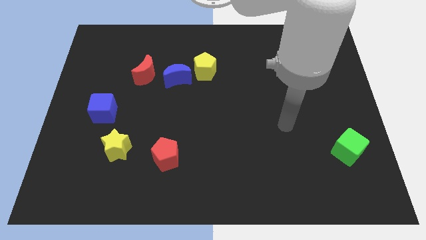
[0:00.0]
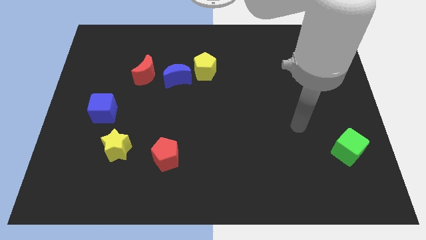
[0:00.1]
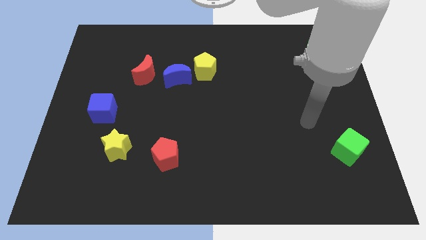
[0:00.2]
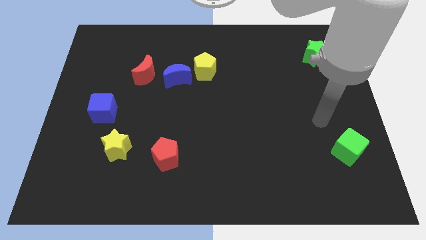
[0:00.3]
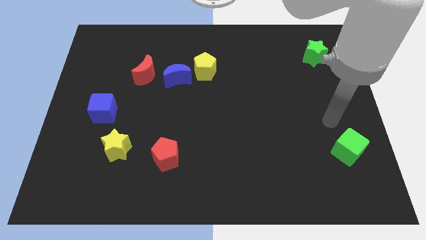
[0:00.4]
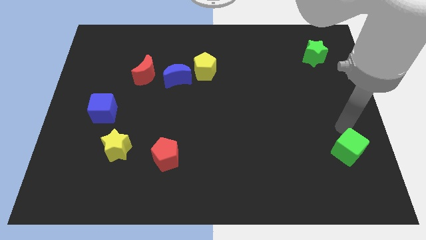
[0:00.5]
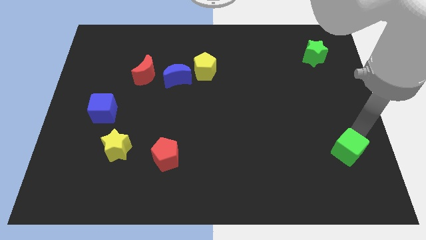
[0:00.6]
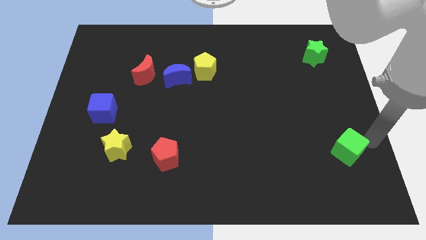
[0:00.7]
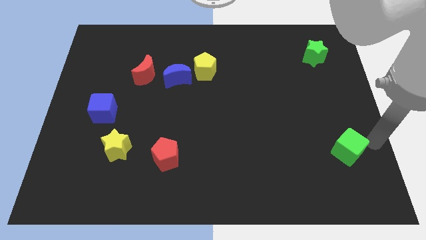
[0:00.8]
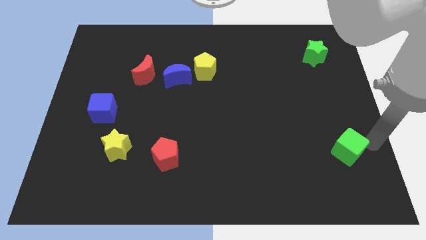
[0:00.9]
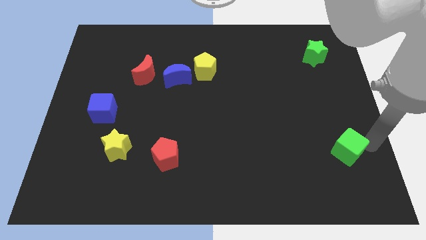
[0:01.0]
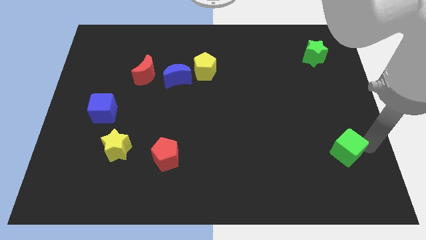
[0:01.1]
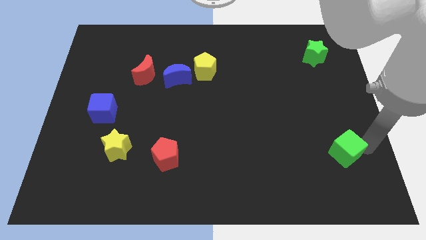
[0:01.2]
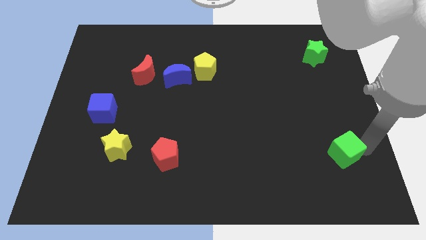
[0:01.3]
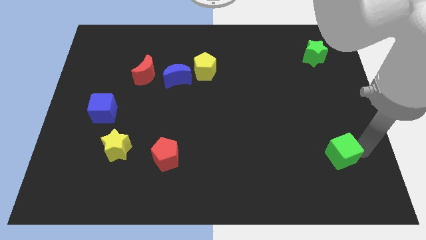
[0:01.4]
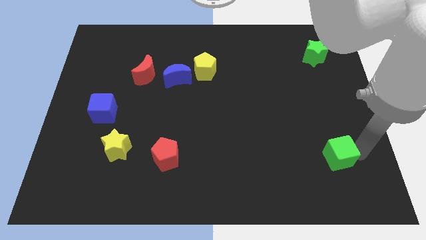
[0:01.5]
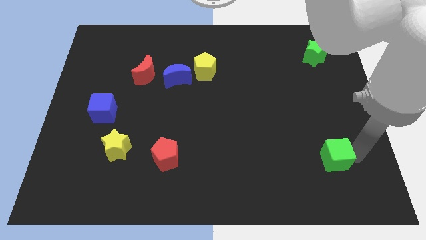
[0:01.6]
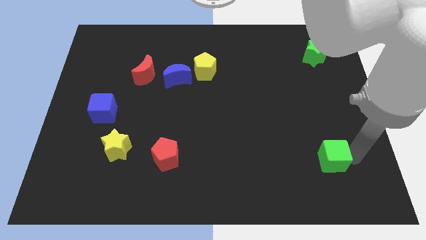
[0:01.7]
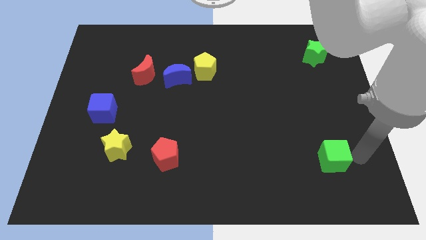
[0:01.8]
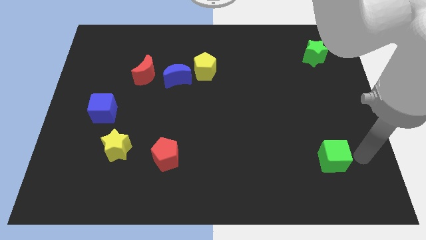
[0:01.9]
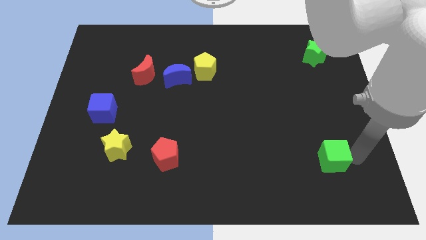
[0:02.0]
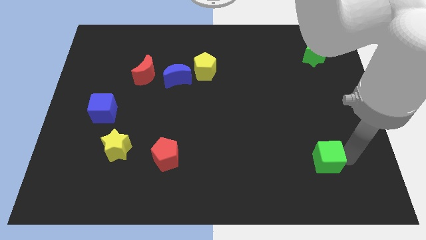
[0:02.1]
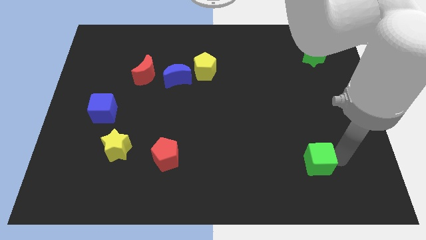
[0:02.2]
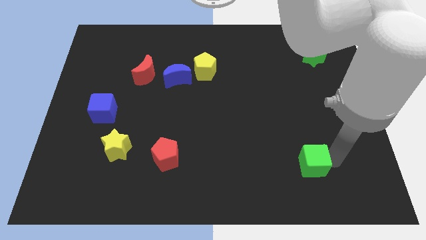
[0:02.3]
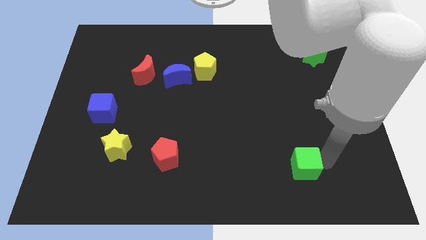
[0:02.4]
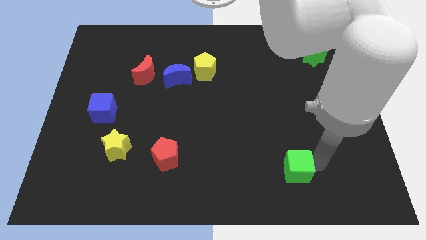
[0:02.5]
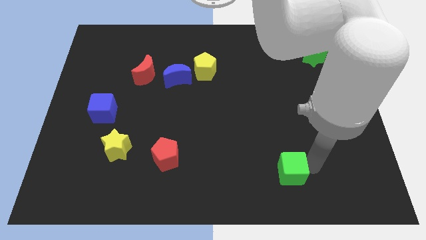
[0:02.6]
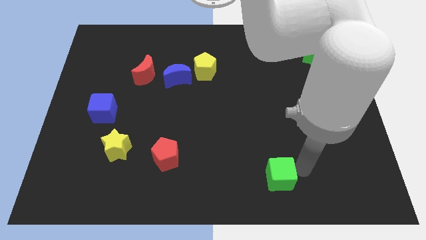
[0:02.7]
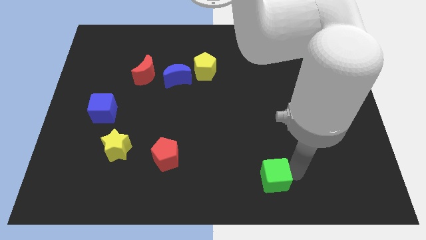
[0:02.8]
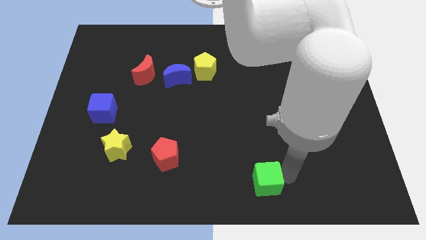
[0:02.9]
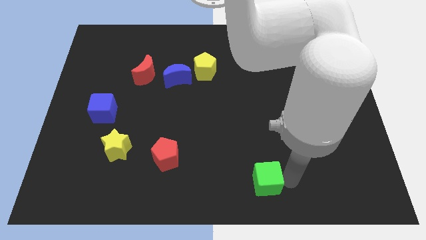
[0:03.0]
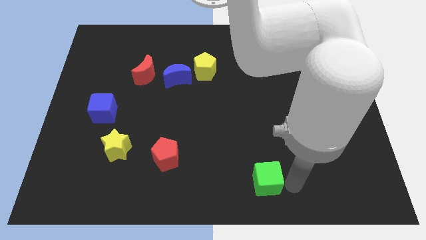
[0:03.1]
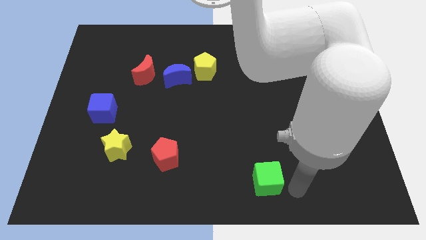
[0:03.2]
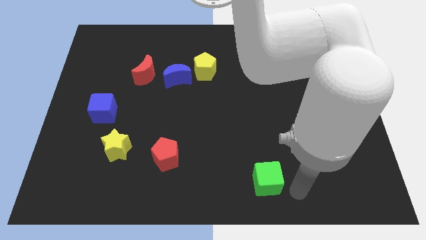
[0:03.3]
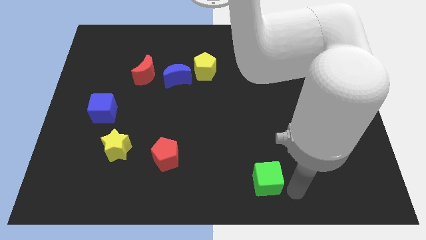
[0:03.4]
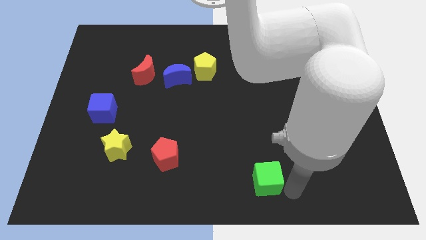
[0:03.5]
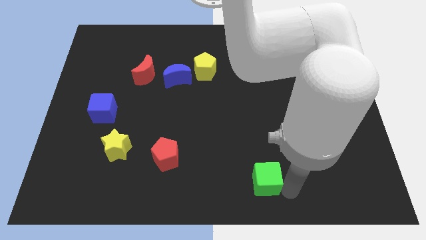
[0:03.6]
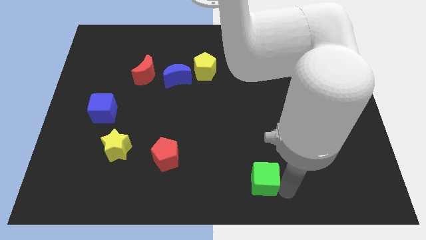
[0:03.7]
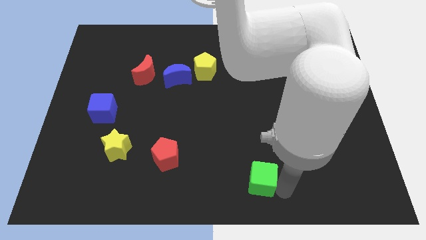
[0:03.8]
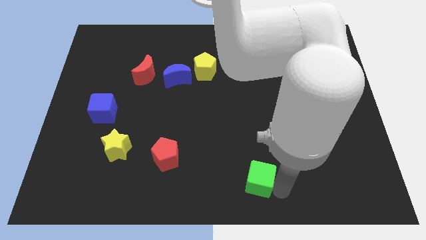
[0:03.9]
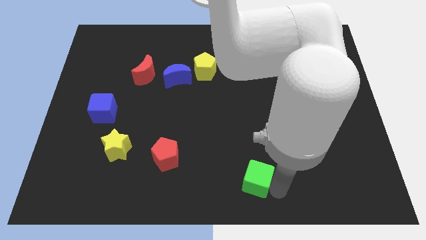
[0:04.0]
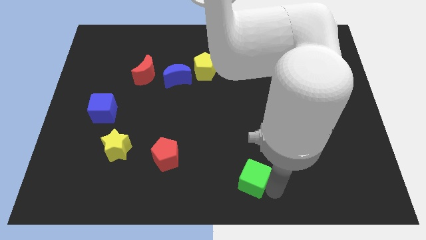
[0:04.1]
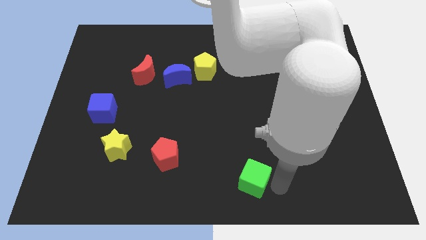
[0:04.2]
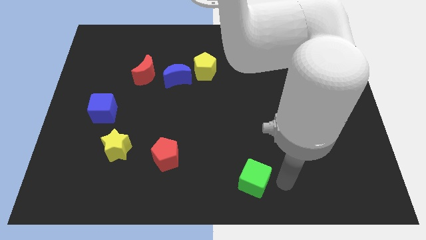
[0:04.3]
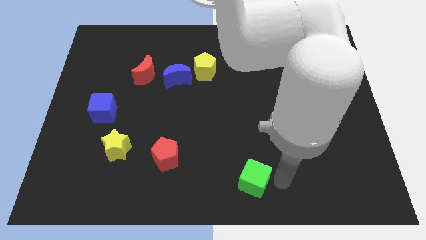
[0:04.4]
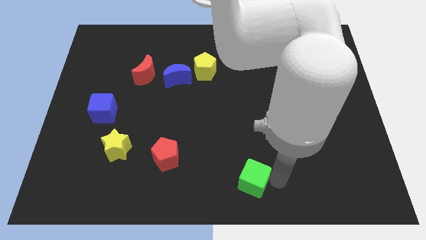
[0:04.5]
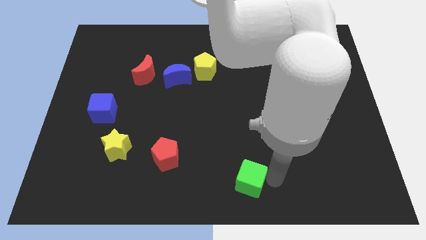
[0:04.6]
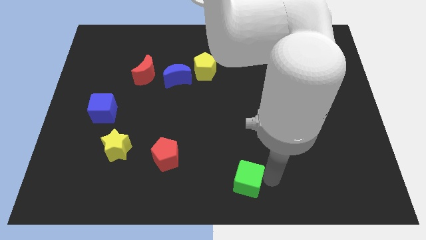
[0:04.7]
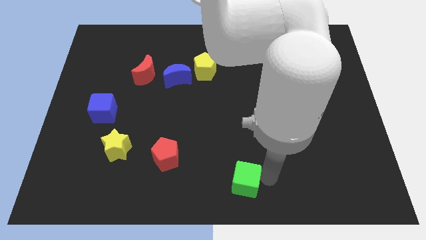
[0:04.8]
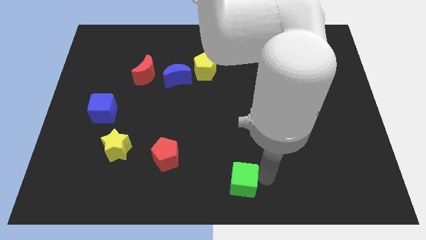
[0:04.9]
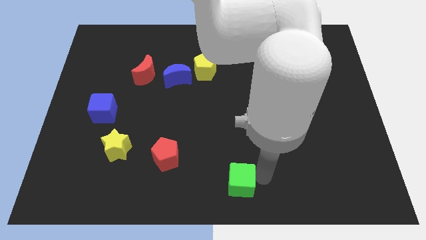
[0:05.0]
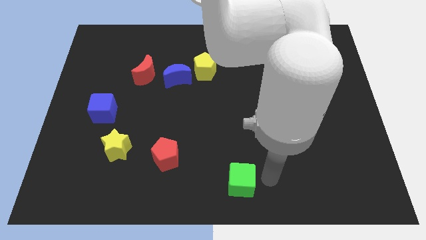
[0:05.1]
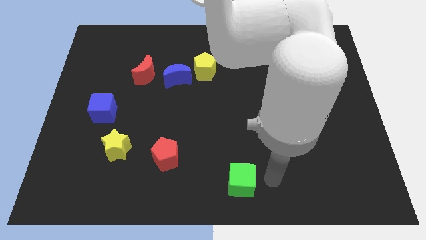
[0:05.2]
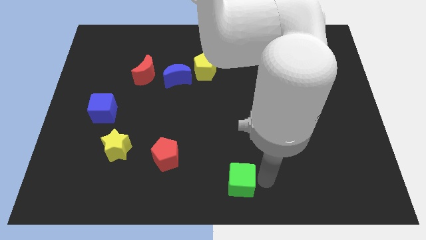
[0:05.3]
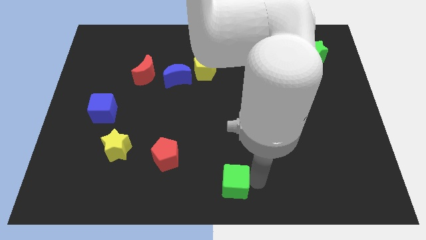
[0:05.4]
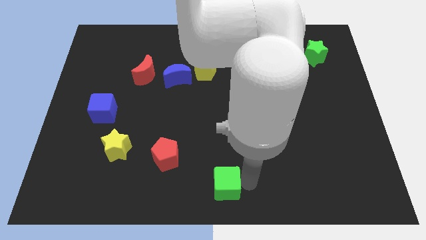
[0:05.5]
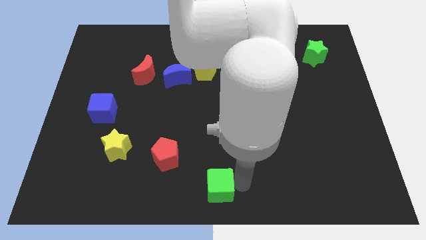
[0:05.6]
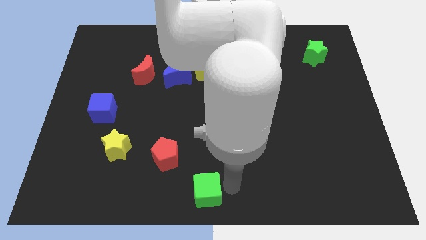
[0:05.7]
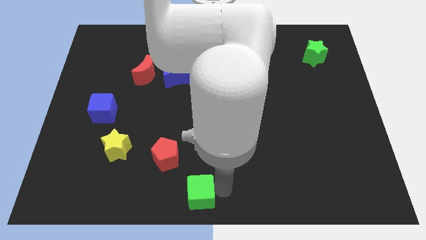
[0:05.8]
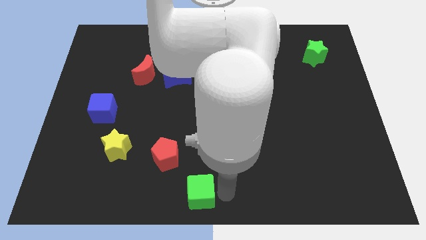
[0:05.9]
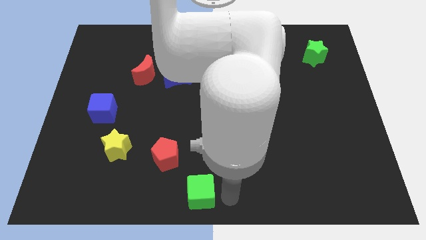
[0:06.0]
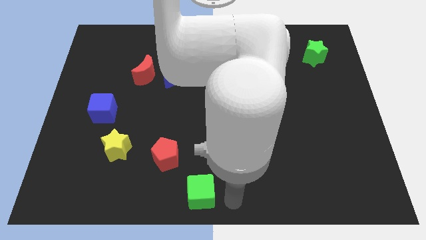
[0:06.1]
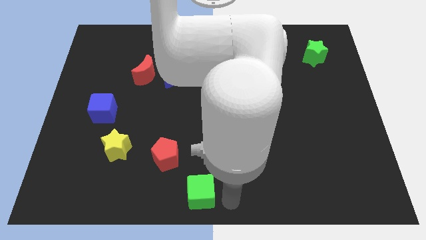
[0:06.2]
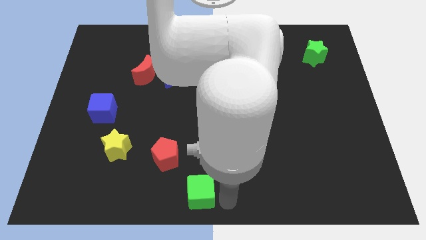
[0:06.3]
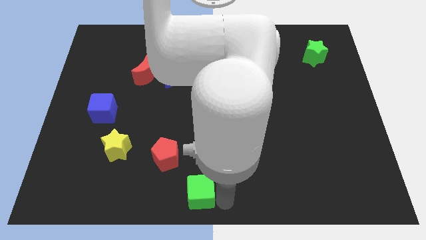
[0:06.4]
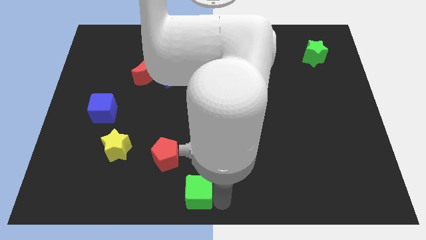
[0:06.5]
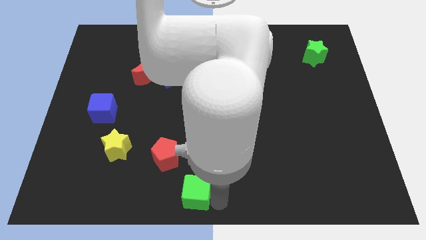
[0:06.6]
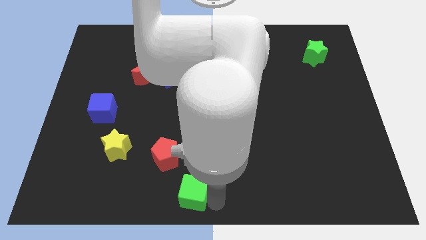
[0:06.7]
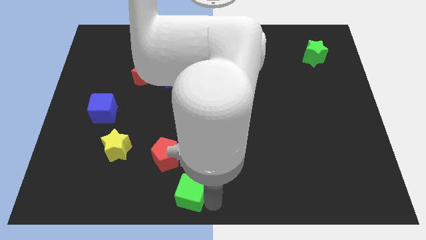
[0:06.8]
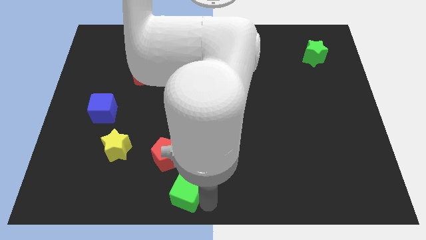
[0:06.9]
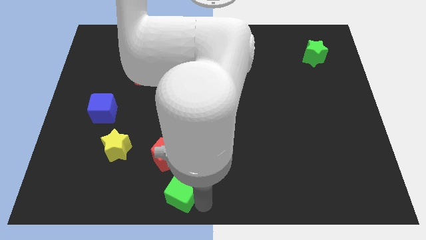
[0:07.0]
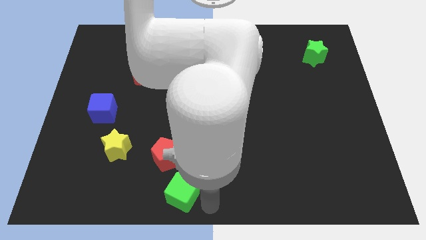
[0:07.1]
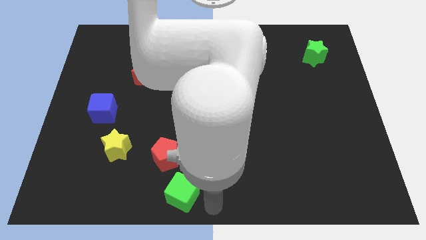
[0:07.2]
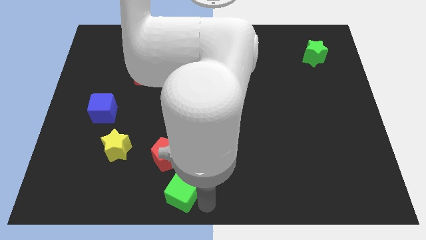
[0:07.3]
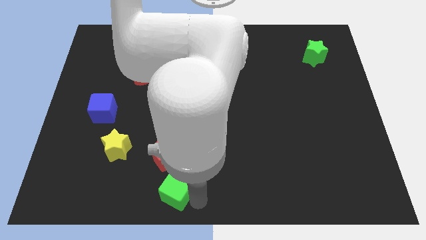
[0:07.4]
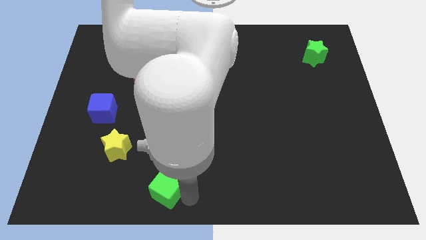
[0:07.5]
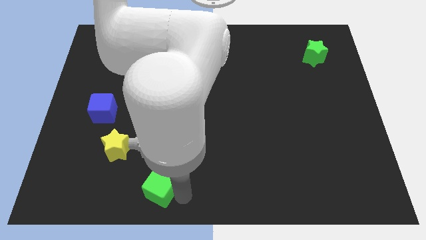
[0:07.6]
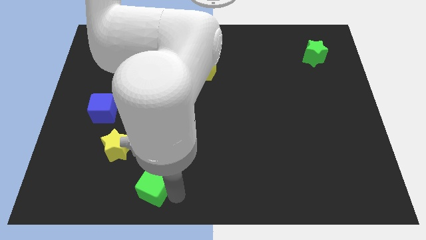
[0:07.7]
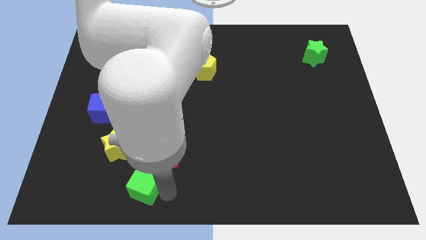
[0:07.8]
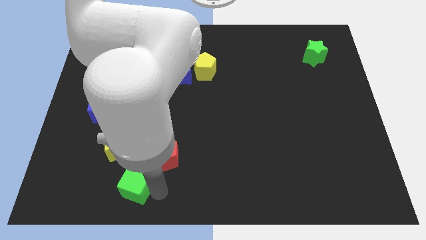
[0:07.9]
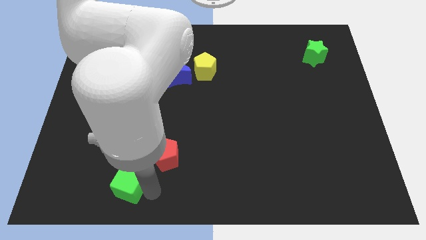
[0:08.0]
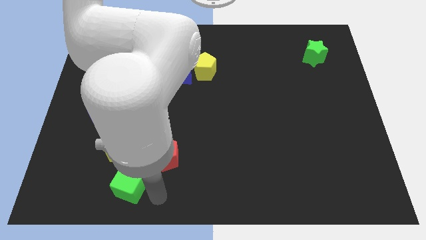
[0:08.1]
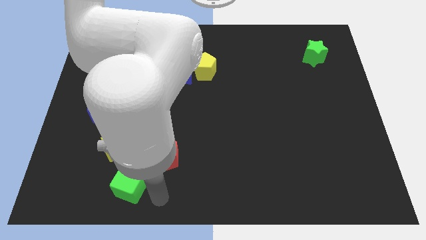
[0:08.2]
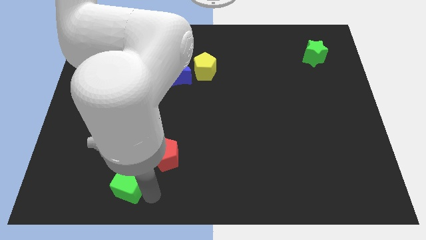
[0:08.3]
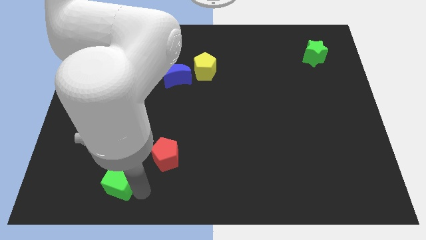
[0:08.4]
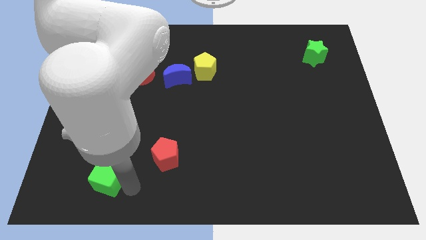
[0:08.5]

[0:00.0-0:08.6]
slide the green cube to the bottom left of the yellow star
